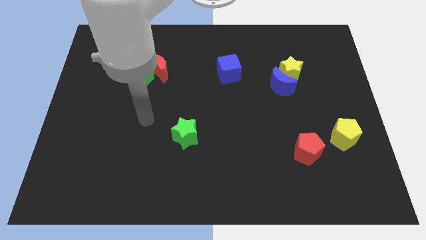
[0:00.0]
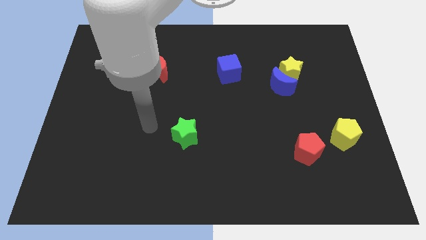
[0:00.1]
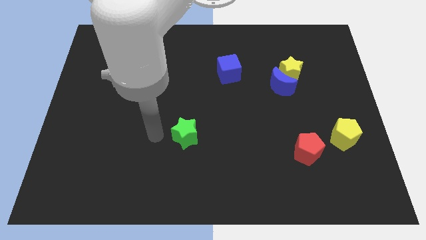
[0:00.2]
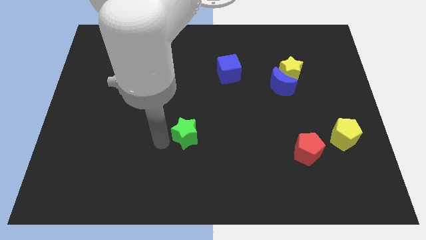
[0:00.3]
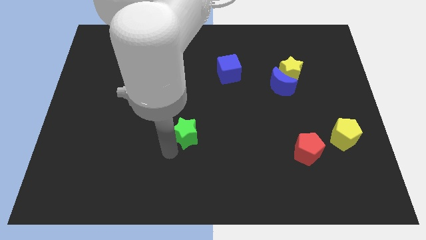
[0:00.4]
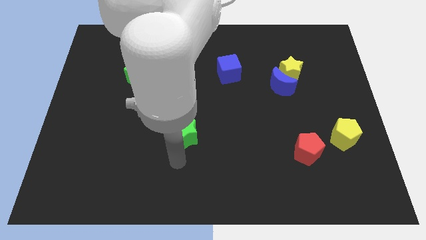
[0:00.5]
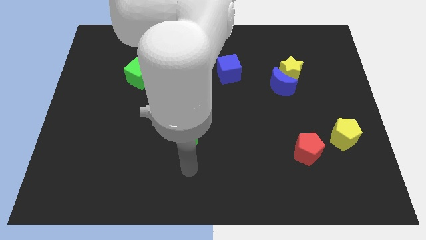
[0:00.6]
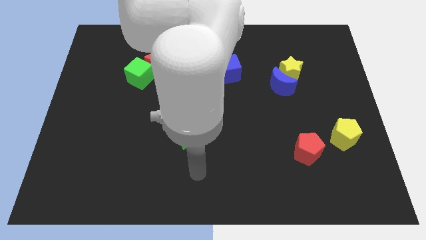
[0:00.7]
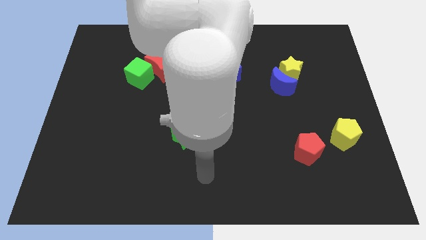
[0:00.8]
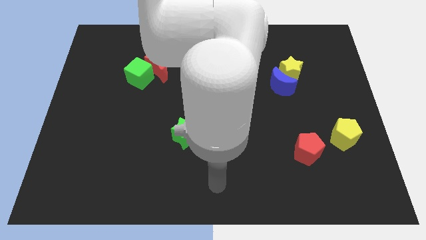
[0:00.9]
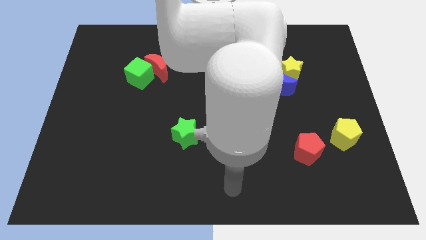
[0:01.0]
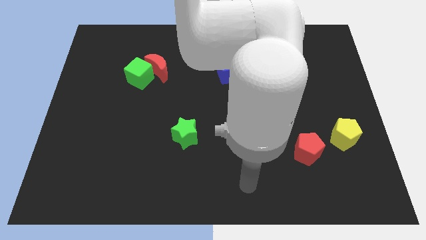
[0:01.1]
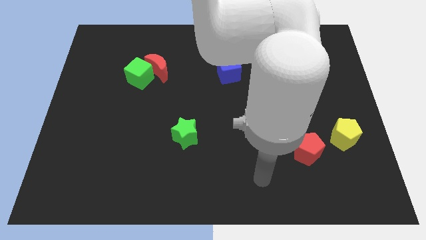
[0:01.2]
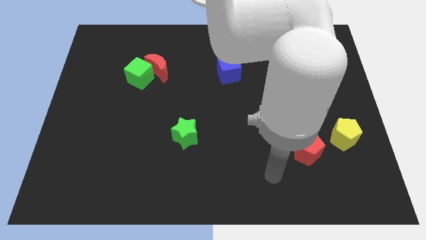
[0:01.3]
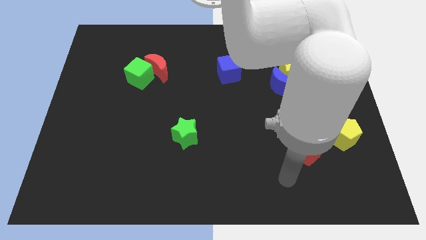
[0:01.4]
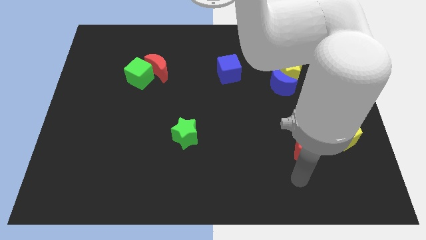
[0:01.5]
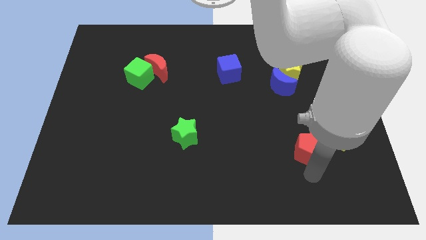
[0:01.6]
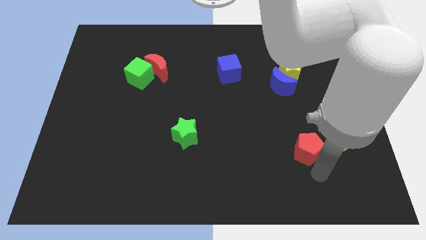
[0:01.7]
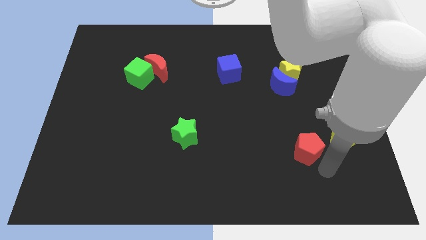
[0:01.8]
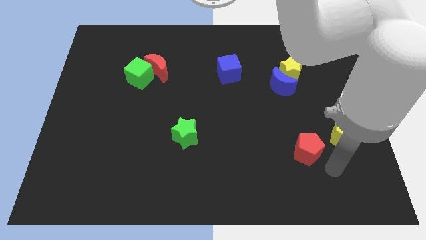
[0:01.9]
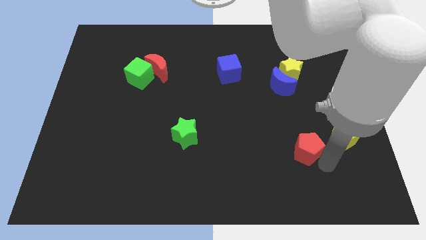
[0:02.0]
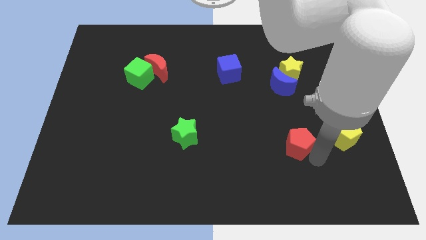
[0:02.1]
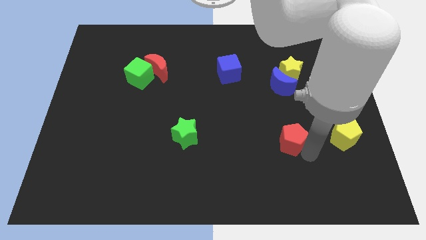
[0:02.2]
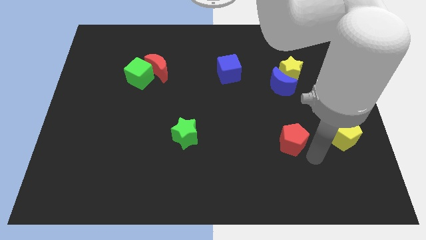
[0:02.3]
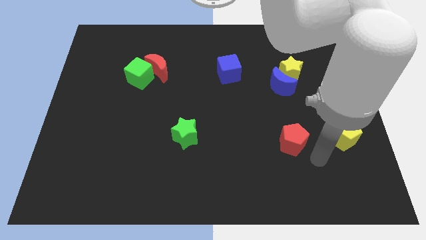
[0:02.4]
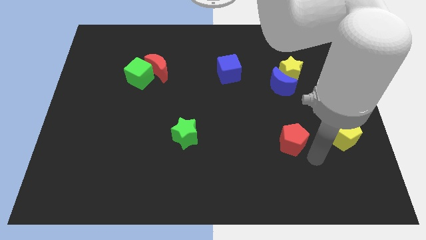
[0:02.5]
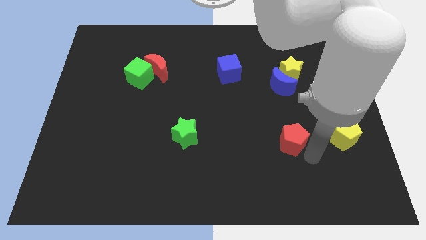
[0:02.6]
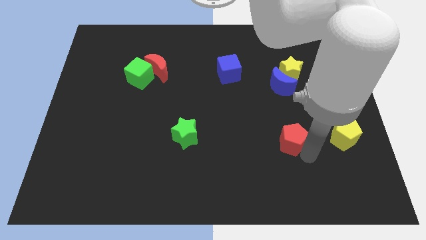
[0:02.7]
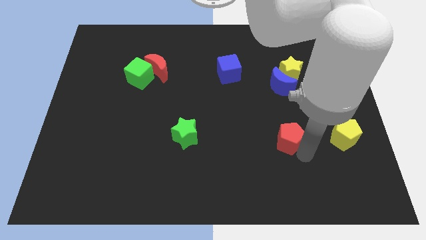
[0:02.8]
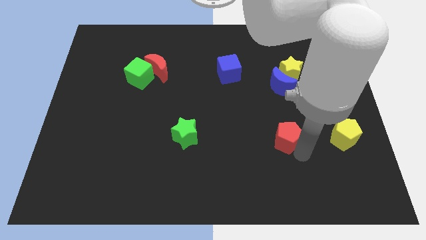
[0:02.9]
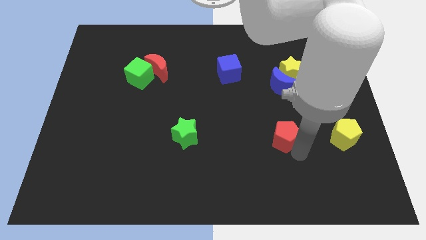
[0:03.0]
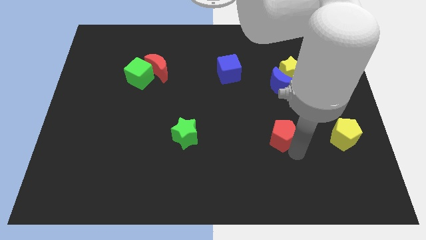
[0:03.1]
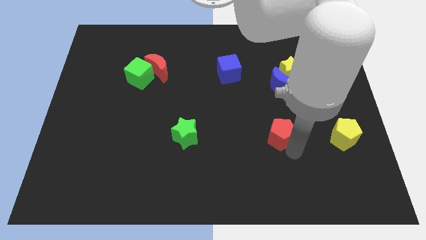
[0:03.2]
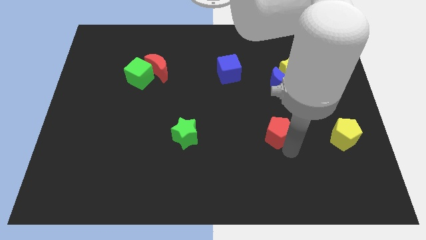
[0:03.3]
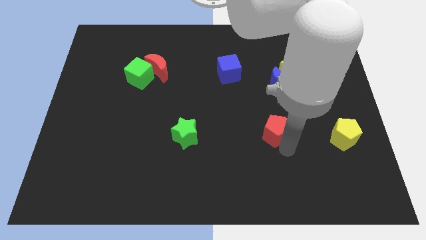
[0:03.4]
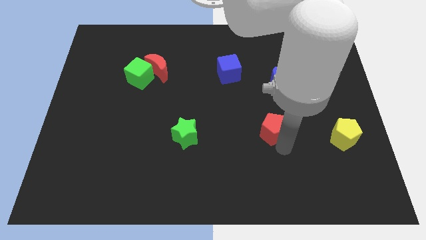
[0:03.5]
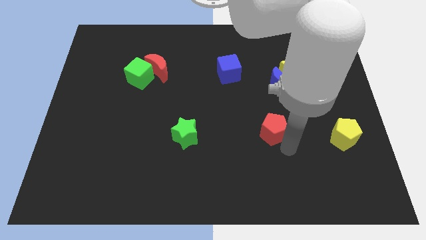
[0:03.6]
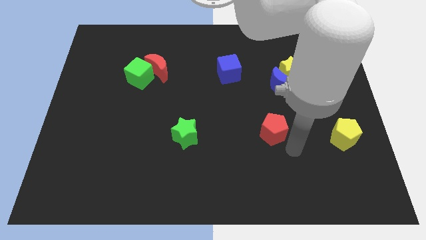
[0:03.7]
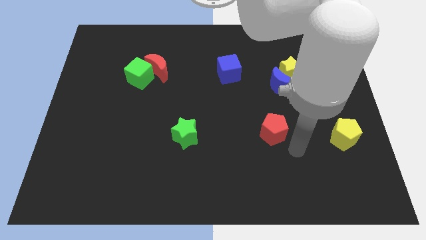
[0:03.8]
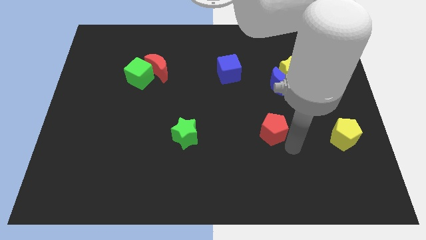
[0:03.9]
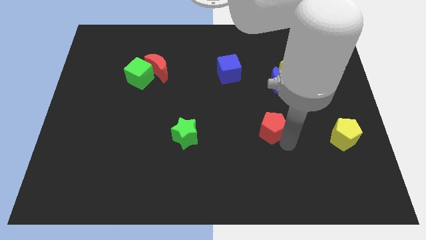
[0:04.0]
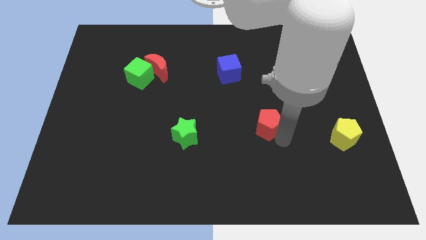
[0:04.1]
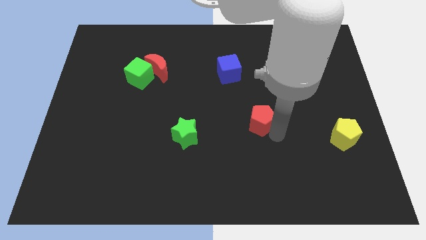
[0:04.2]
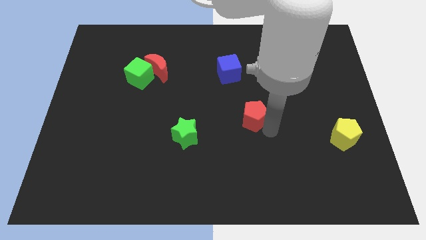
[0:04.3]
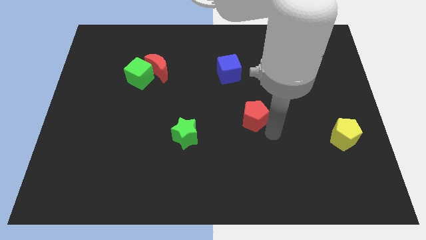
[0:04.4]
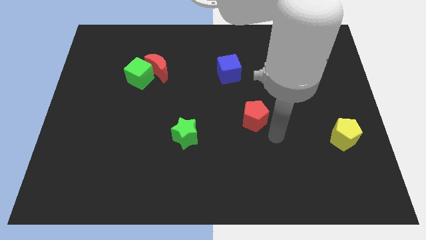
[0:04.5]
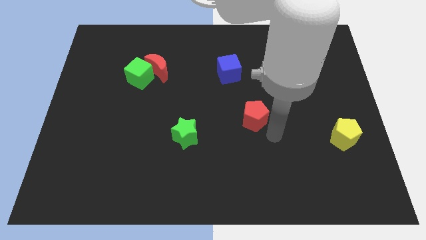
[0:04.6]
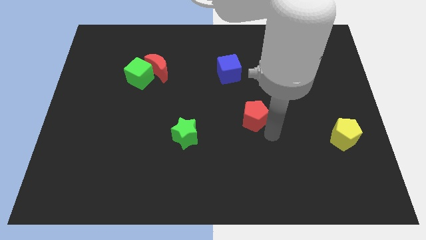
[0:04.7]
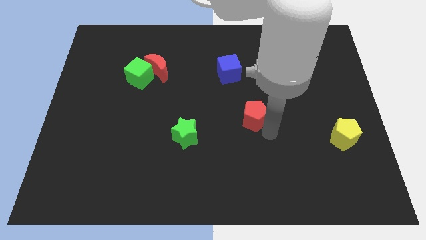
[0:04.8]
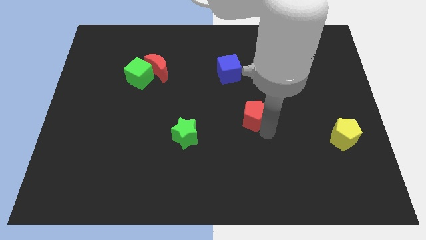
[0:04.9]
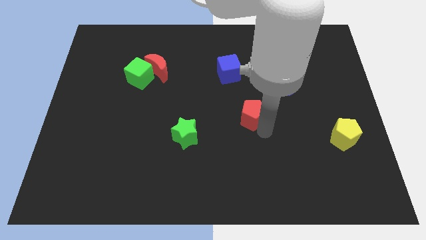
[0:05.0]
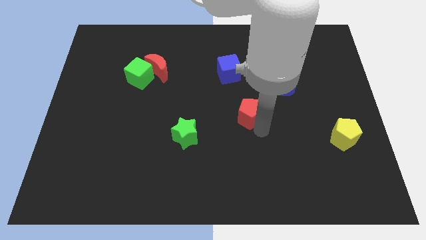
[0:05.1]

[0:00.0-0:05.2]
slide the red pentagon to the bottom side of the blue cube

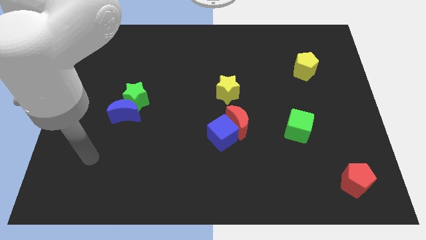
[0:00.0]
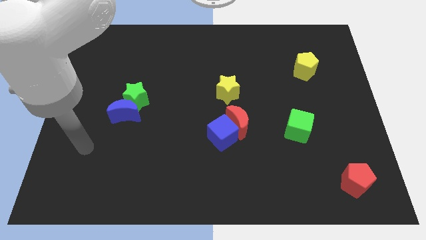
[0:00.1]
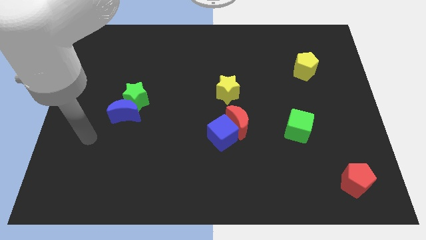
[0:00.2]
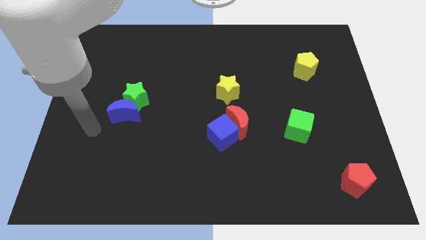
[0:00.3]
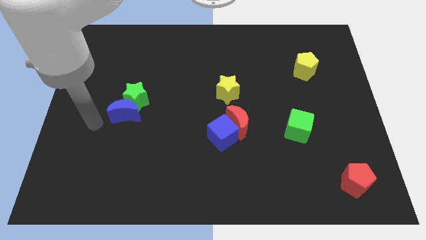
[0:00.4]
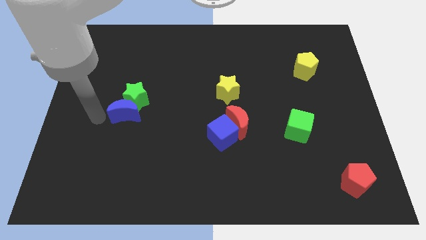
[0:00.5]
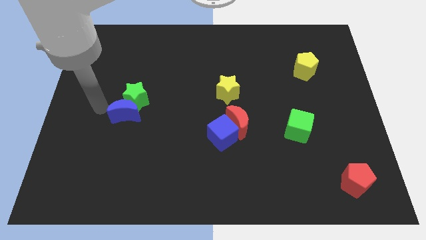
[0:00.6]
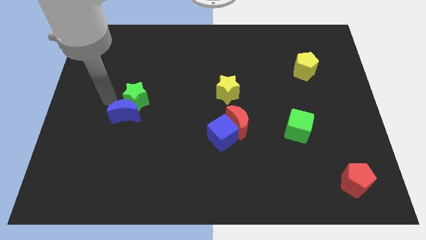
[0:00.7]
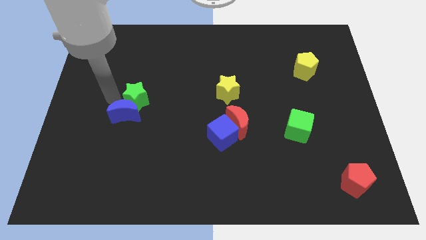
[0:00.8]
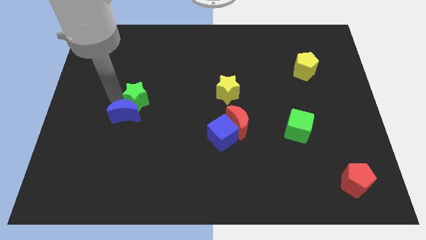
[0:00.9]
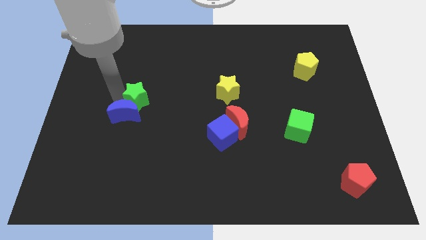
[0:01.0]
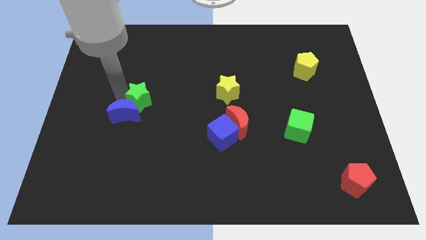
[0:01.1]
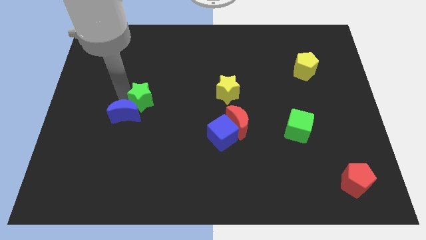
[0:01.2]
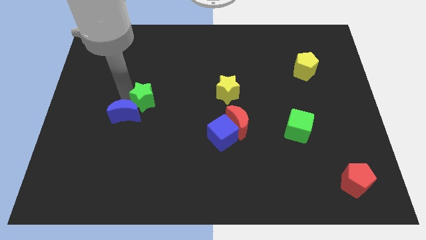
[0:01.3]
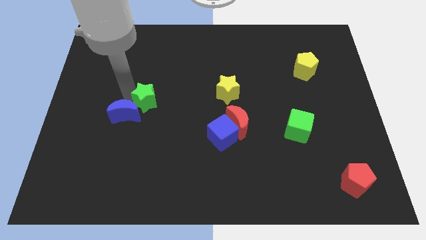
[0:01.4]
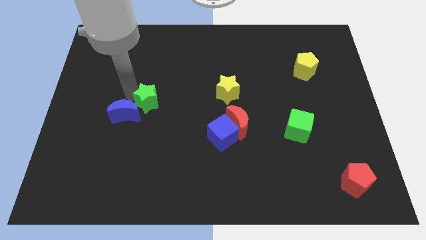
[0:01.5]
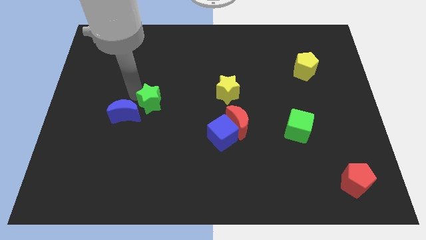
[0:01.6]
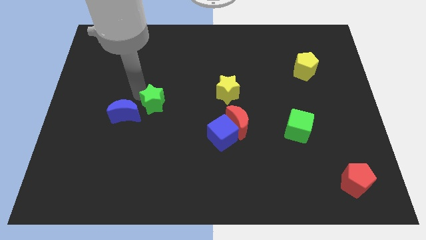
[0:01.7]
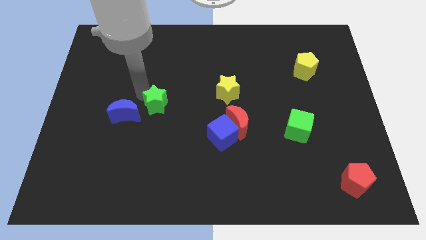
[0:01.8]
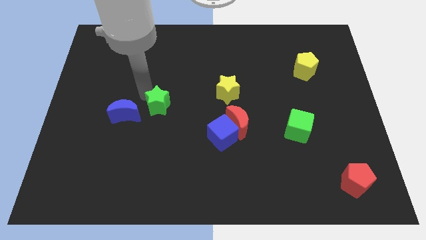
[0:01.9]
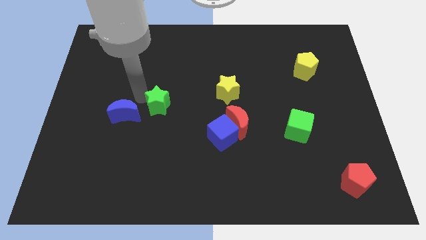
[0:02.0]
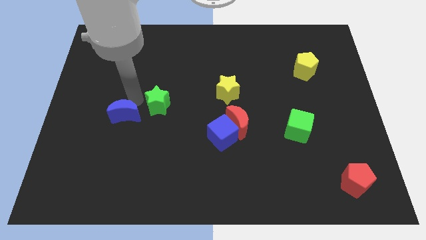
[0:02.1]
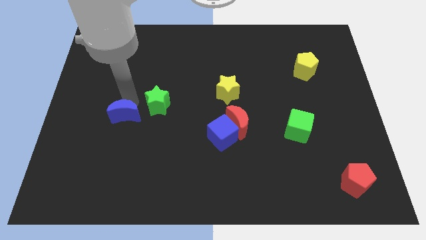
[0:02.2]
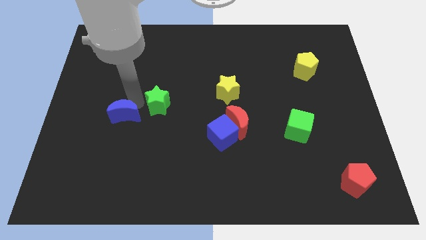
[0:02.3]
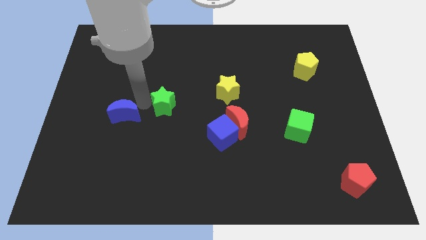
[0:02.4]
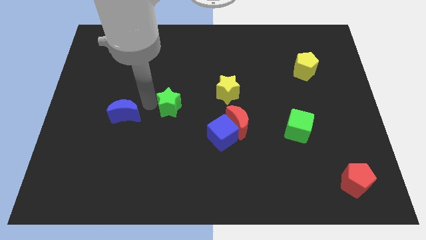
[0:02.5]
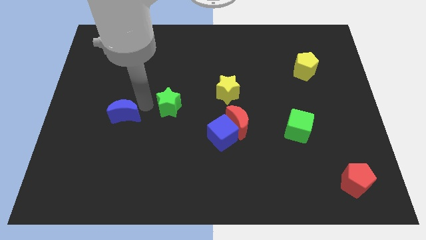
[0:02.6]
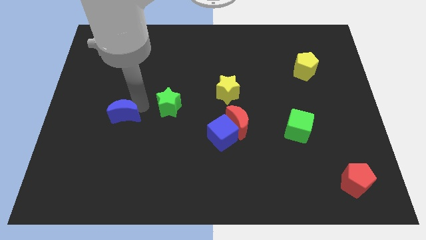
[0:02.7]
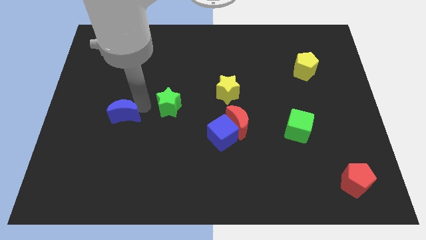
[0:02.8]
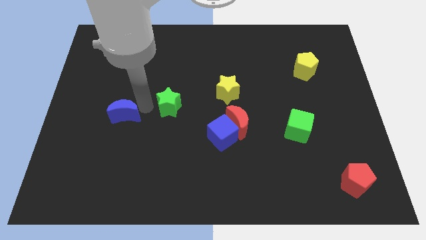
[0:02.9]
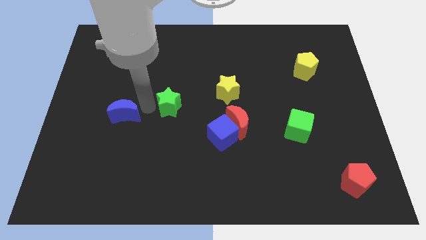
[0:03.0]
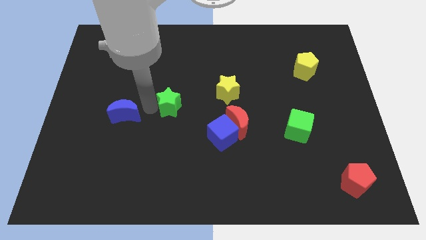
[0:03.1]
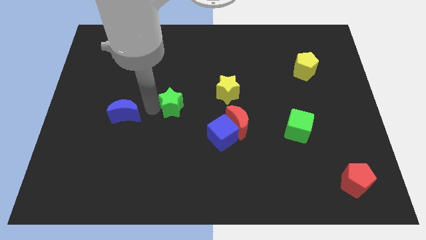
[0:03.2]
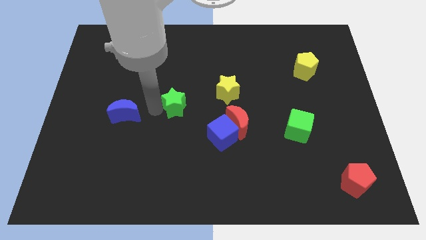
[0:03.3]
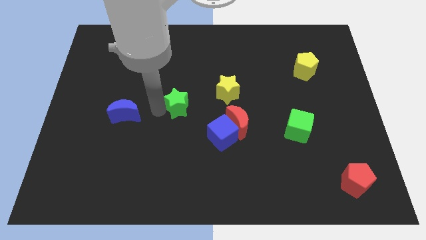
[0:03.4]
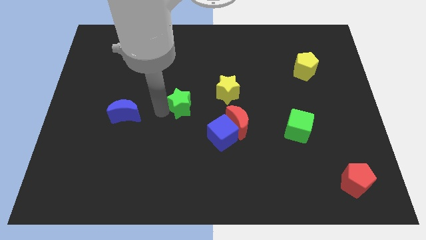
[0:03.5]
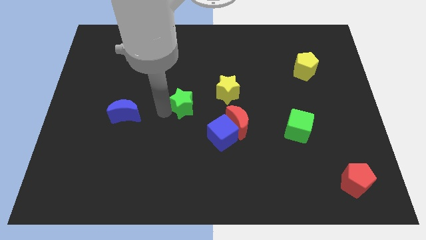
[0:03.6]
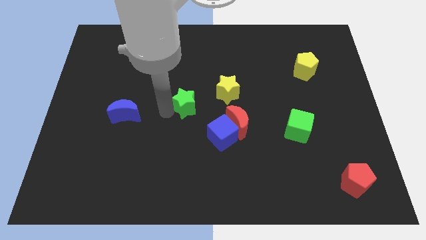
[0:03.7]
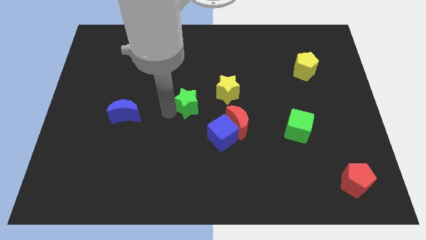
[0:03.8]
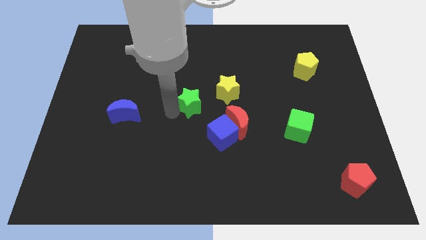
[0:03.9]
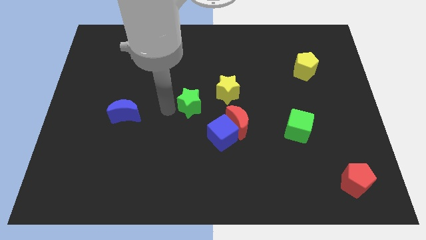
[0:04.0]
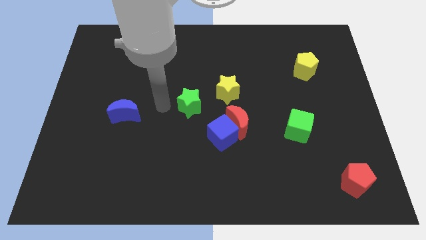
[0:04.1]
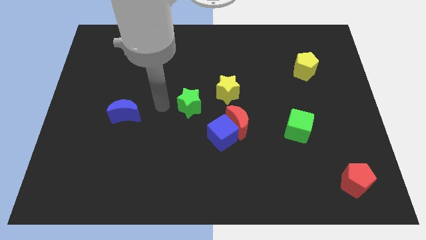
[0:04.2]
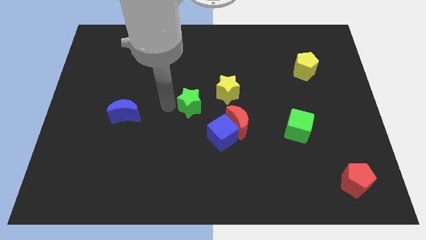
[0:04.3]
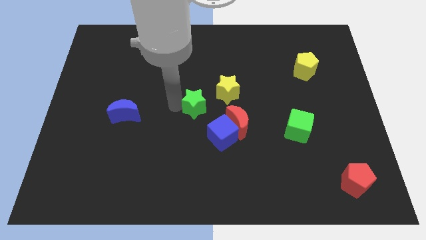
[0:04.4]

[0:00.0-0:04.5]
slide the green star to the top left of the red moon
